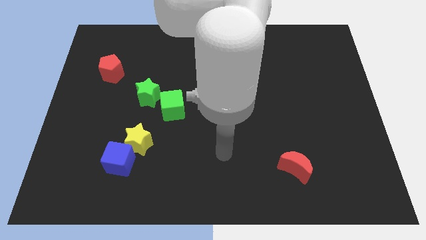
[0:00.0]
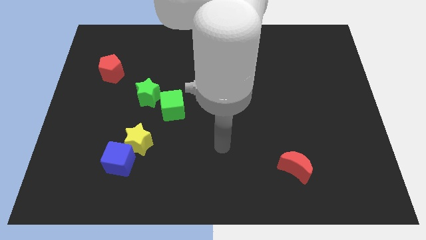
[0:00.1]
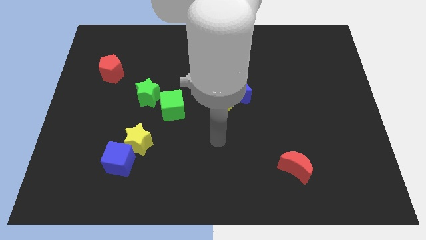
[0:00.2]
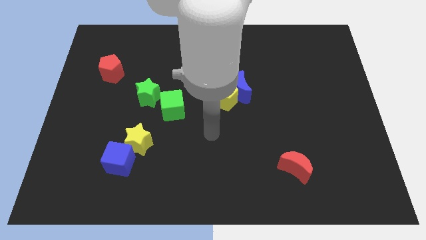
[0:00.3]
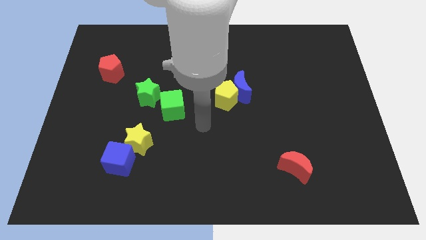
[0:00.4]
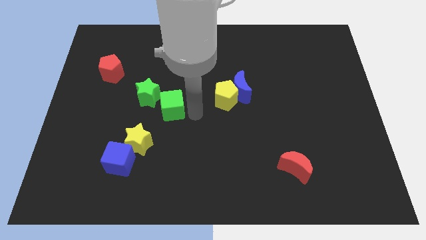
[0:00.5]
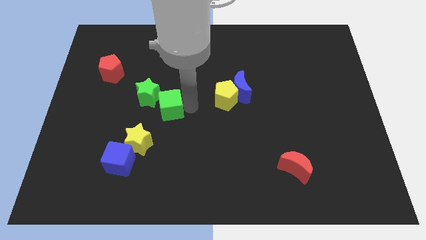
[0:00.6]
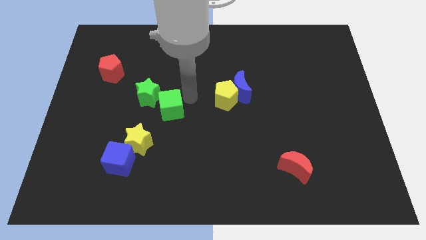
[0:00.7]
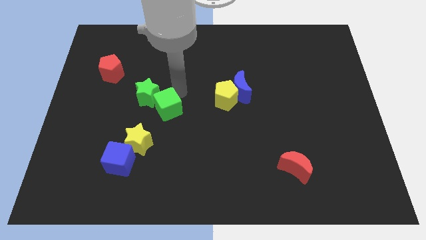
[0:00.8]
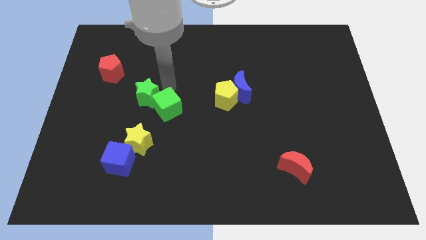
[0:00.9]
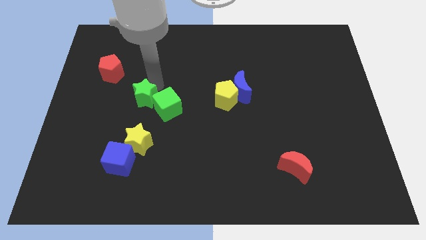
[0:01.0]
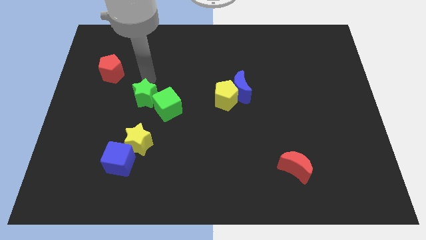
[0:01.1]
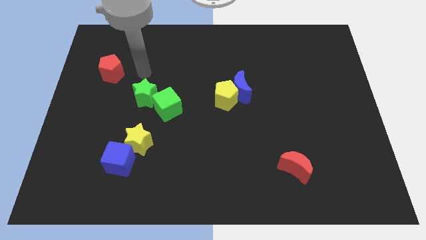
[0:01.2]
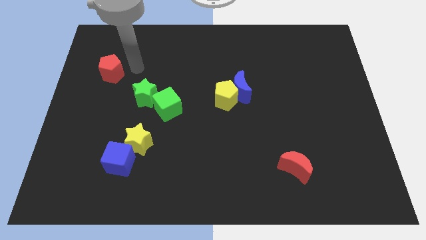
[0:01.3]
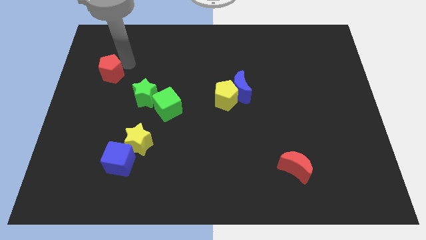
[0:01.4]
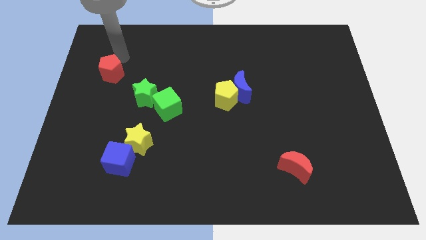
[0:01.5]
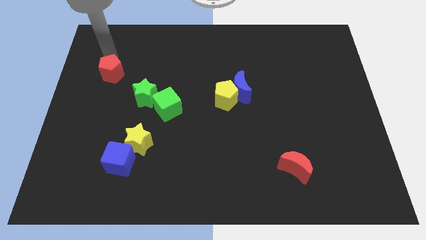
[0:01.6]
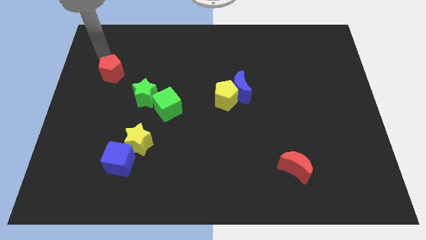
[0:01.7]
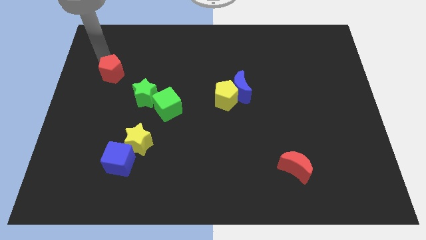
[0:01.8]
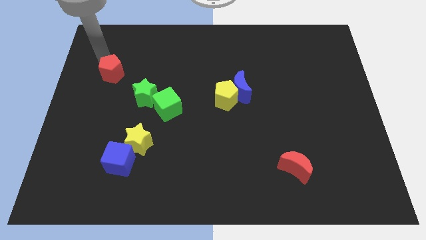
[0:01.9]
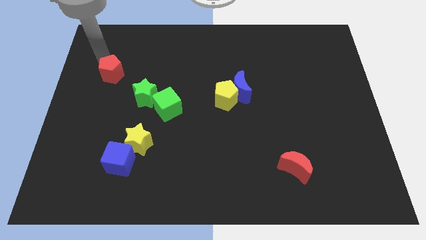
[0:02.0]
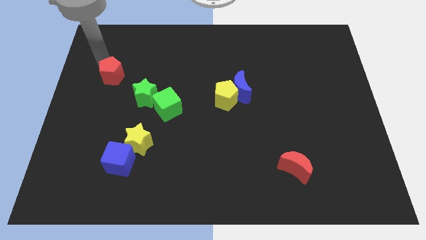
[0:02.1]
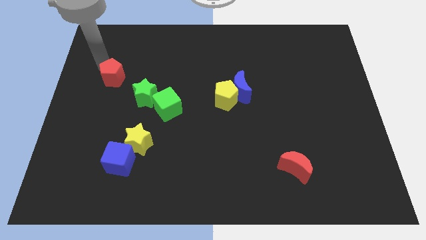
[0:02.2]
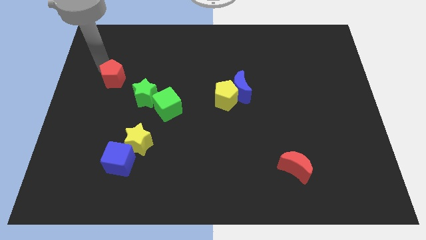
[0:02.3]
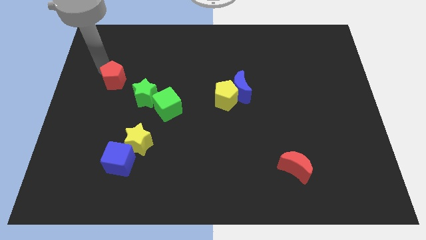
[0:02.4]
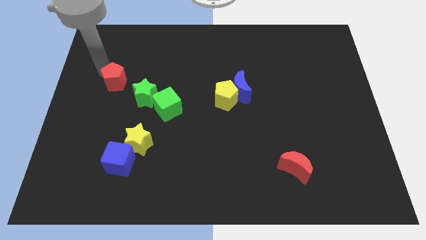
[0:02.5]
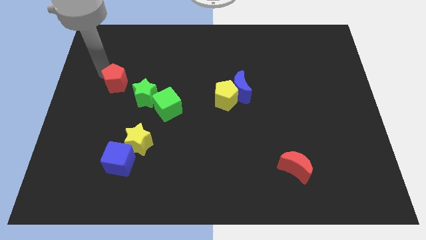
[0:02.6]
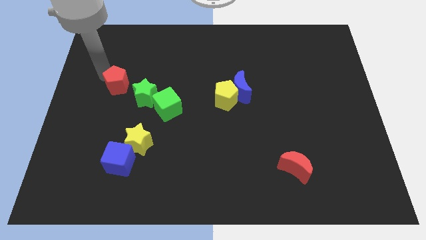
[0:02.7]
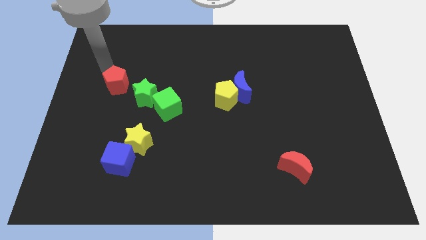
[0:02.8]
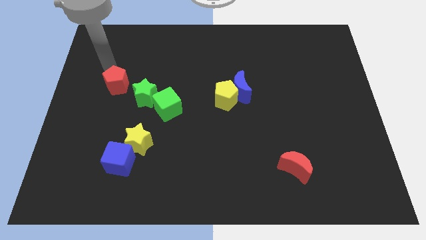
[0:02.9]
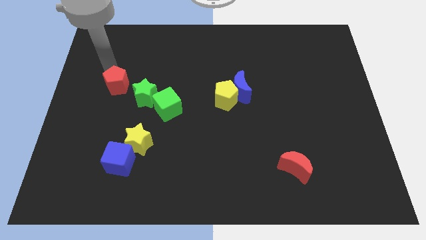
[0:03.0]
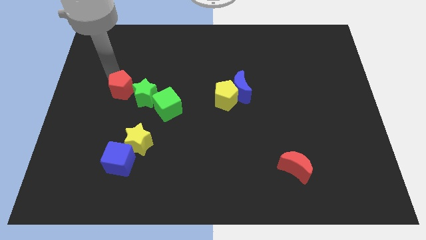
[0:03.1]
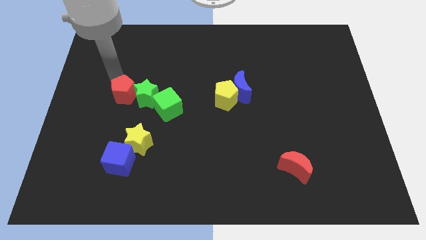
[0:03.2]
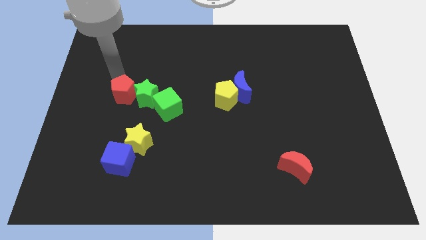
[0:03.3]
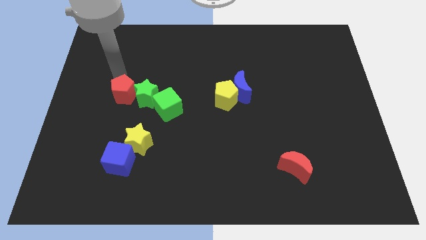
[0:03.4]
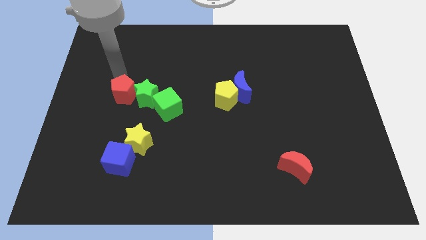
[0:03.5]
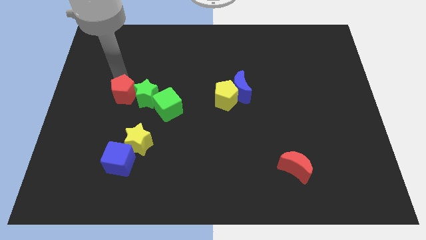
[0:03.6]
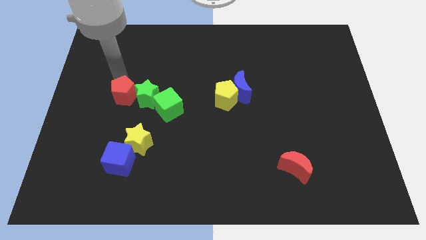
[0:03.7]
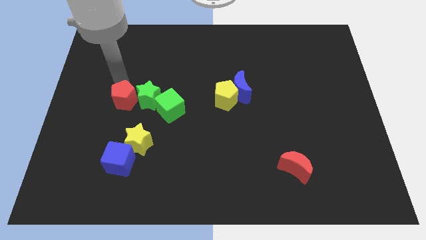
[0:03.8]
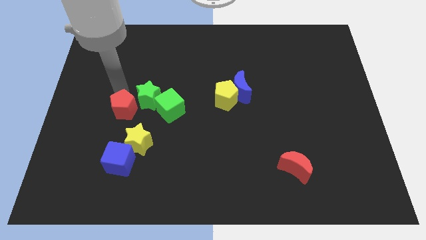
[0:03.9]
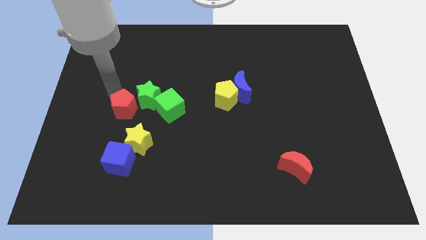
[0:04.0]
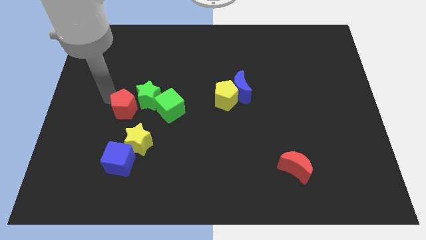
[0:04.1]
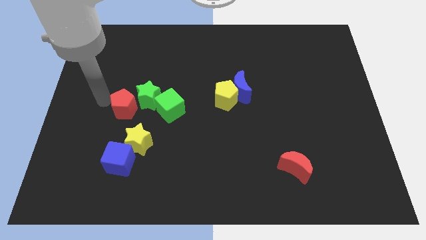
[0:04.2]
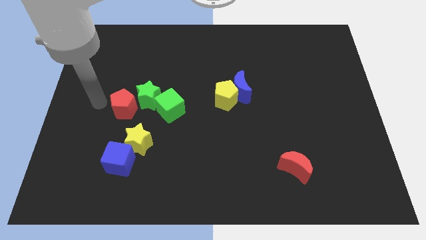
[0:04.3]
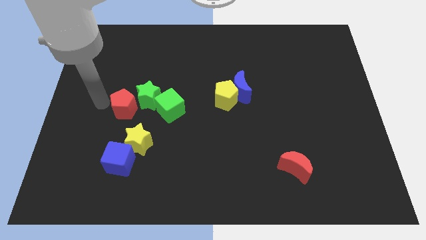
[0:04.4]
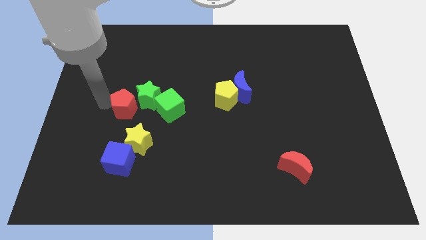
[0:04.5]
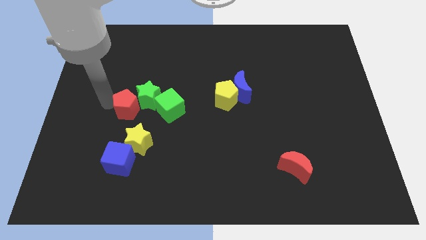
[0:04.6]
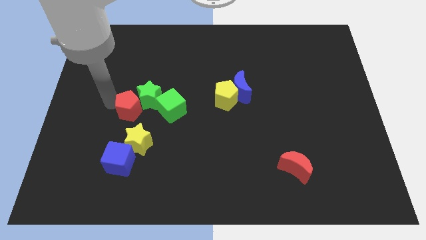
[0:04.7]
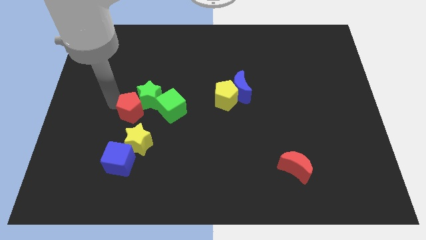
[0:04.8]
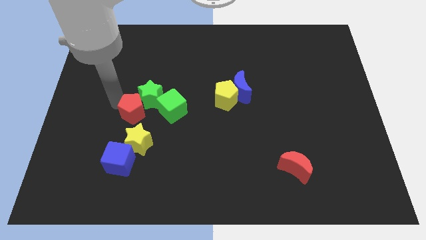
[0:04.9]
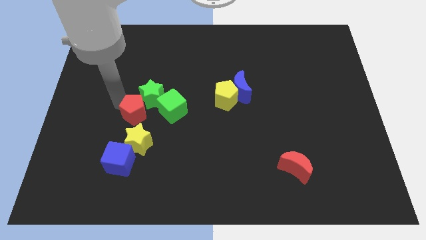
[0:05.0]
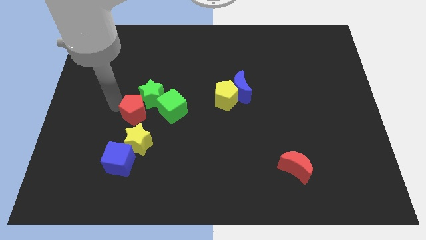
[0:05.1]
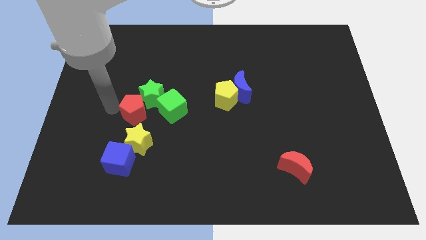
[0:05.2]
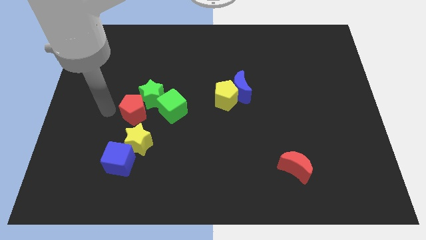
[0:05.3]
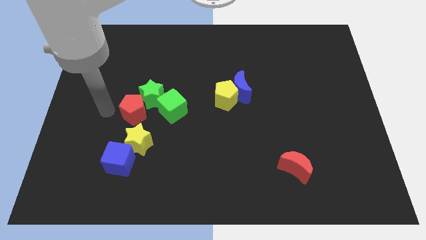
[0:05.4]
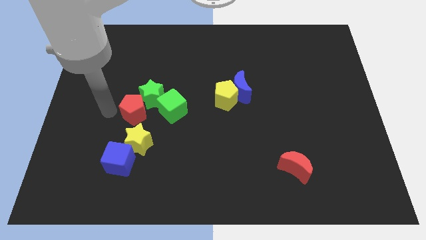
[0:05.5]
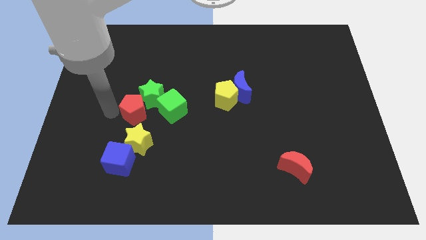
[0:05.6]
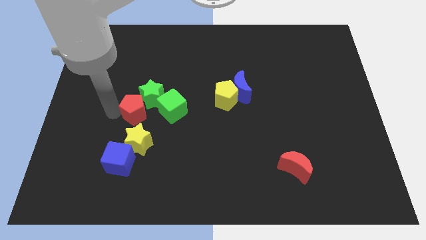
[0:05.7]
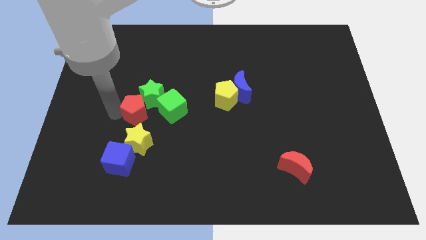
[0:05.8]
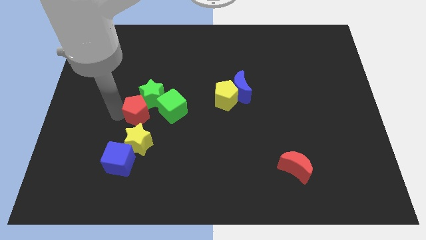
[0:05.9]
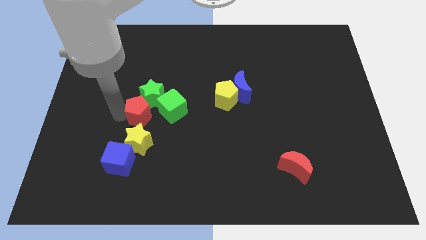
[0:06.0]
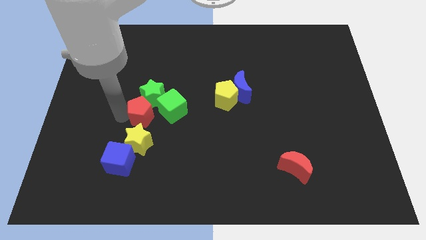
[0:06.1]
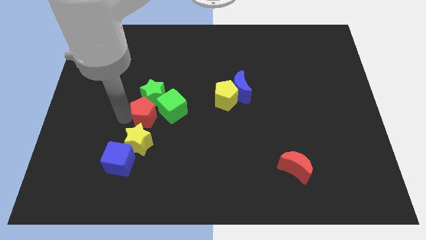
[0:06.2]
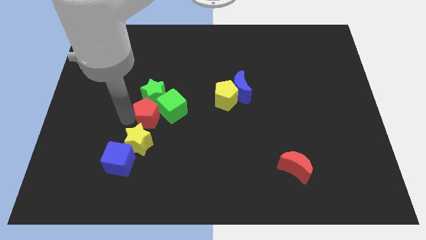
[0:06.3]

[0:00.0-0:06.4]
move the red pentagon close to the green cube

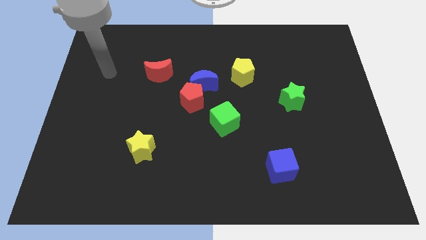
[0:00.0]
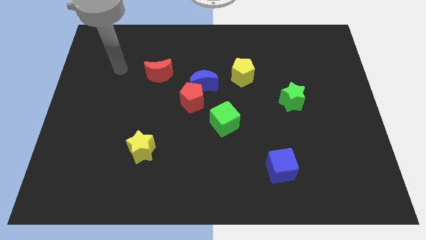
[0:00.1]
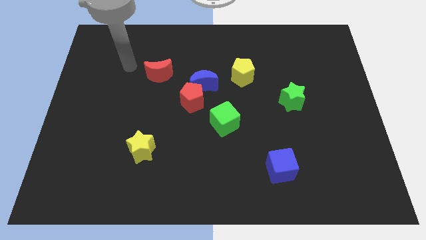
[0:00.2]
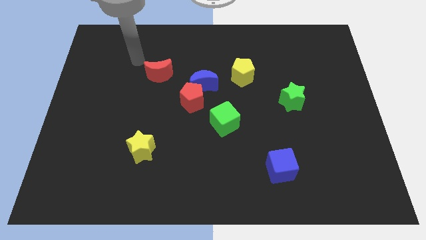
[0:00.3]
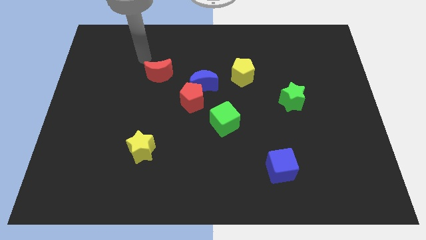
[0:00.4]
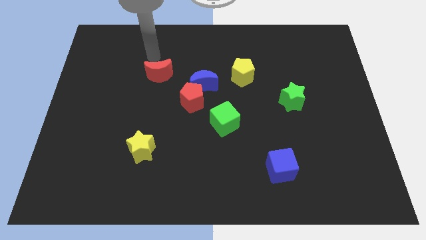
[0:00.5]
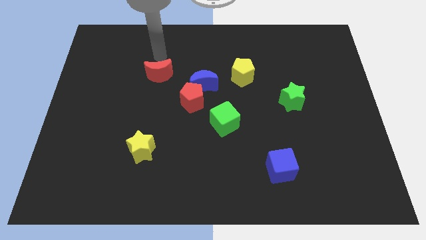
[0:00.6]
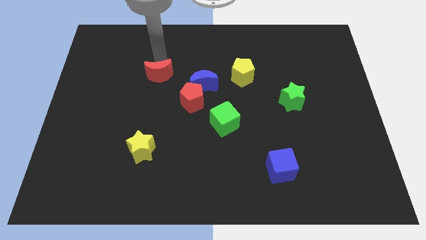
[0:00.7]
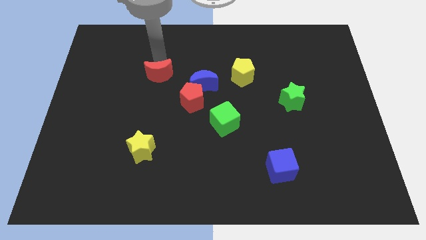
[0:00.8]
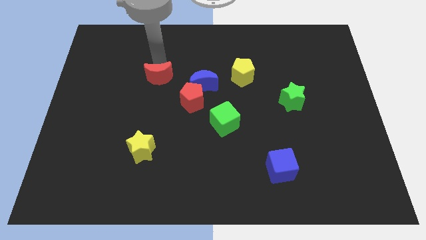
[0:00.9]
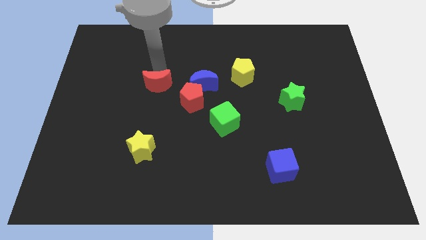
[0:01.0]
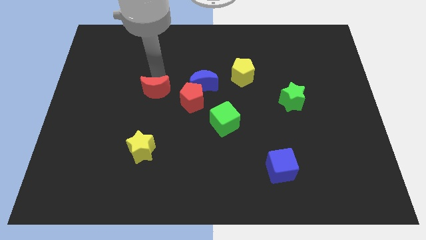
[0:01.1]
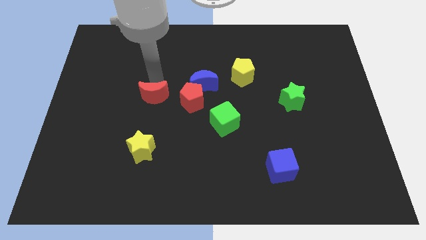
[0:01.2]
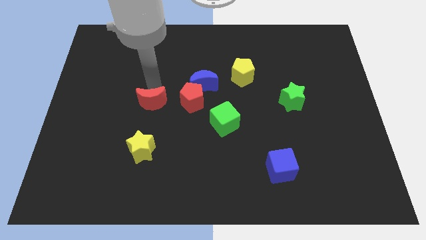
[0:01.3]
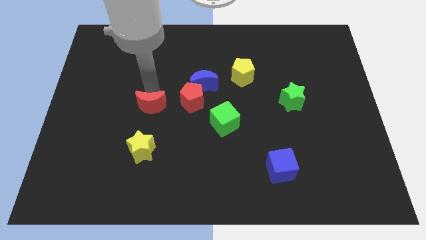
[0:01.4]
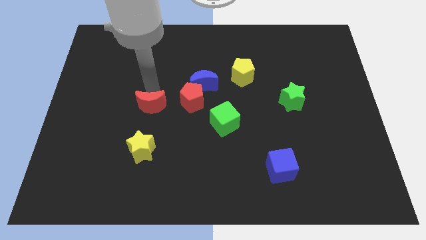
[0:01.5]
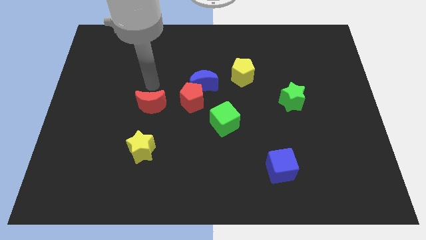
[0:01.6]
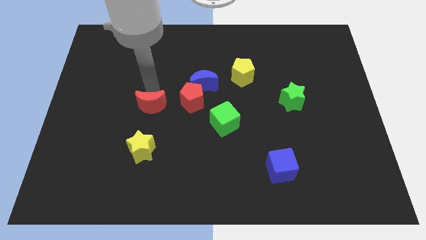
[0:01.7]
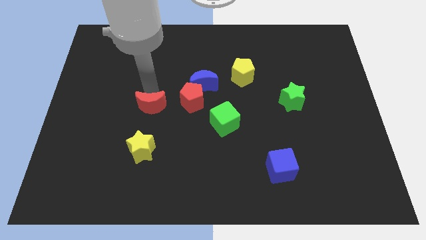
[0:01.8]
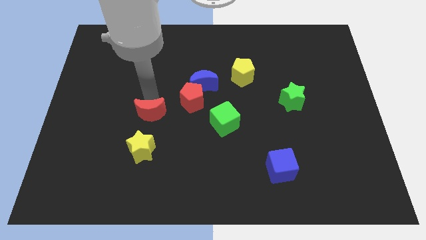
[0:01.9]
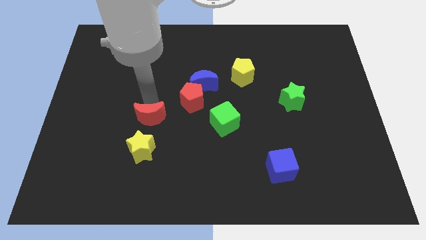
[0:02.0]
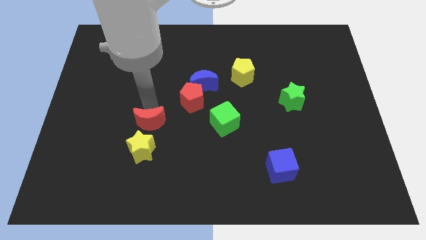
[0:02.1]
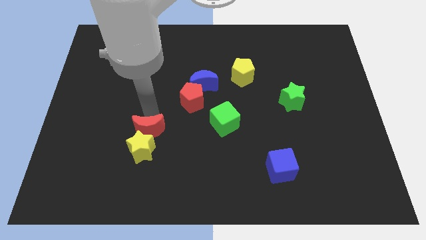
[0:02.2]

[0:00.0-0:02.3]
move the red moon close to the yellow star
